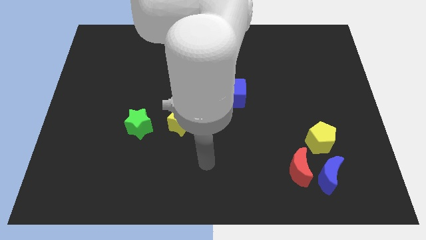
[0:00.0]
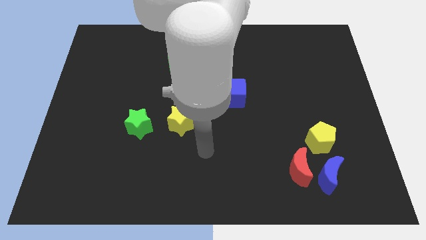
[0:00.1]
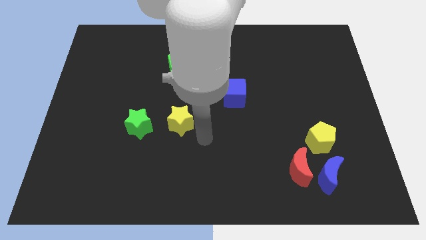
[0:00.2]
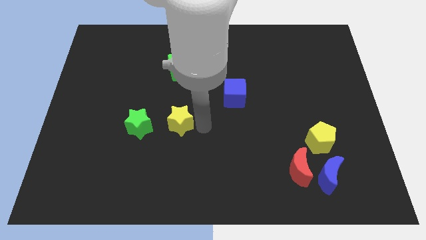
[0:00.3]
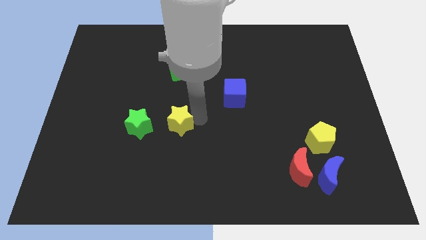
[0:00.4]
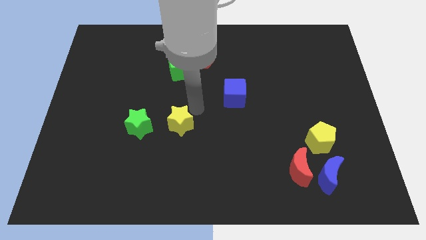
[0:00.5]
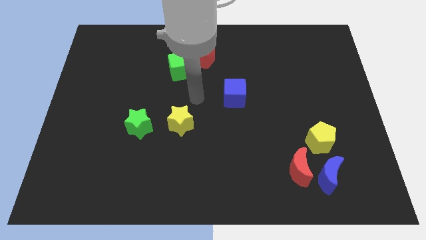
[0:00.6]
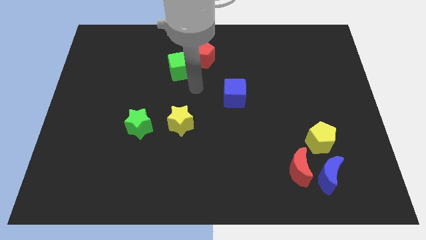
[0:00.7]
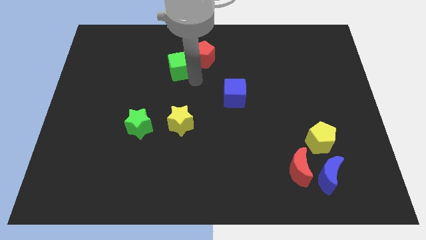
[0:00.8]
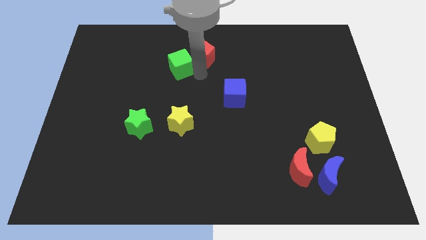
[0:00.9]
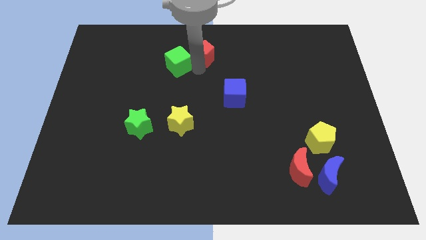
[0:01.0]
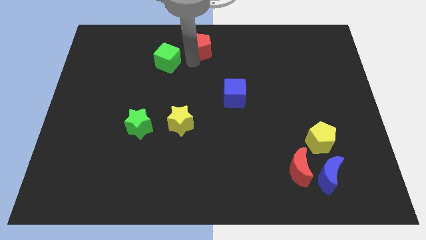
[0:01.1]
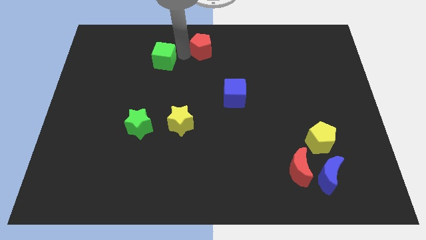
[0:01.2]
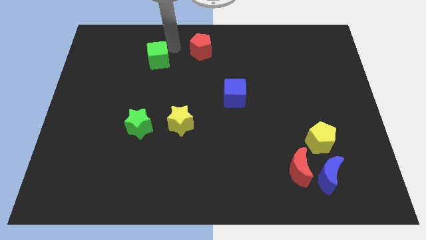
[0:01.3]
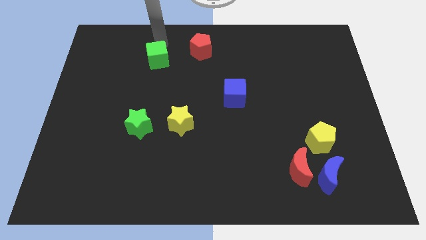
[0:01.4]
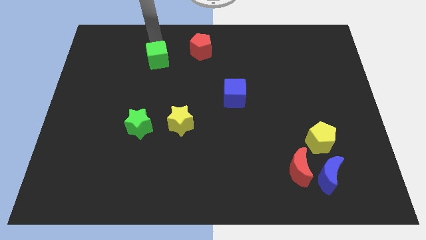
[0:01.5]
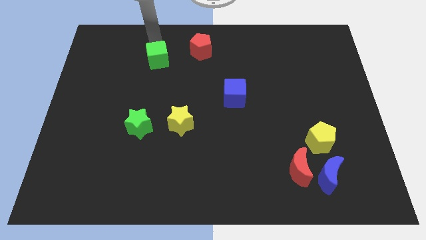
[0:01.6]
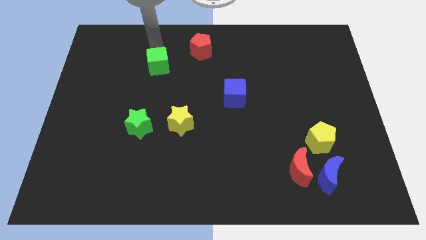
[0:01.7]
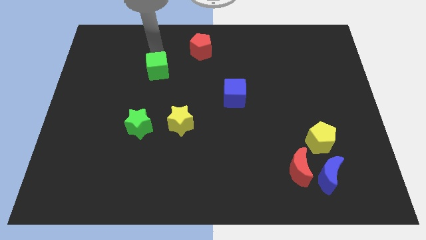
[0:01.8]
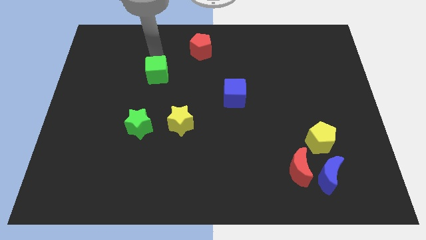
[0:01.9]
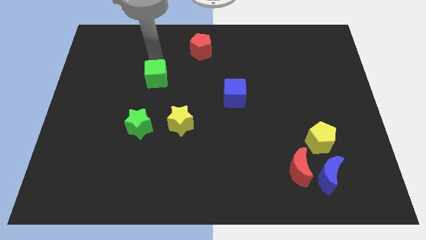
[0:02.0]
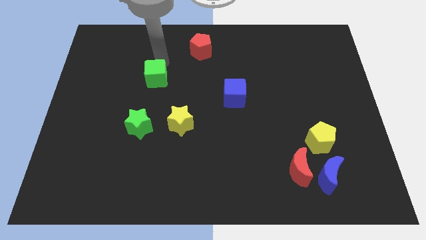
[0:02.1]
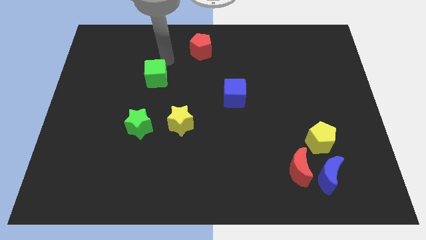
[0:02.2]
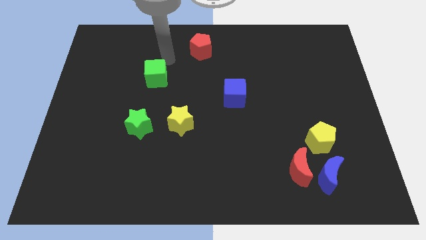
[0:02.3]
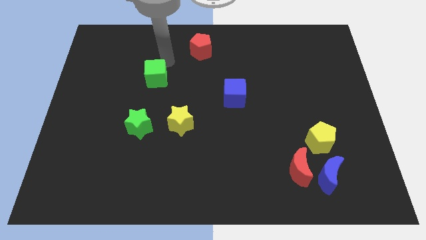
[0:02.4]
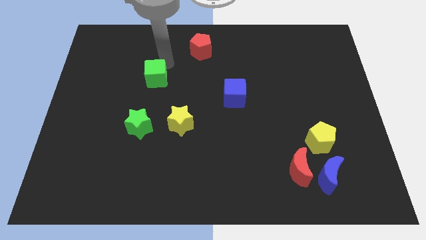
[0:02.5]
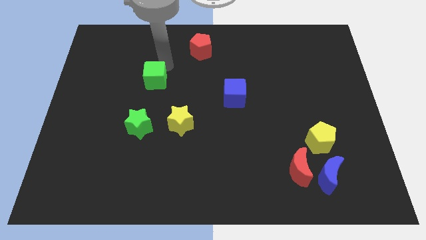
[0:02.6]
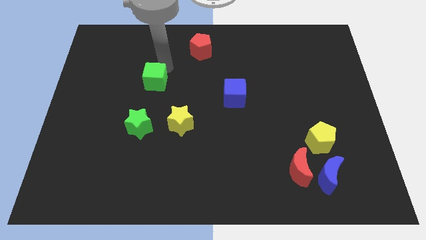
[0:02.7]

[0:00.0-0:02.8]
slightly move the green cube down and to the left diagonally

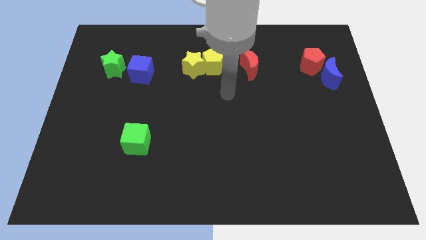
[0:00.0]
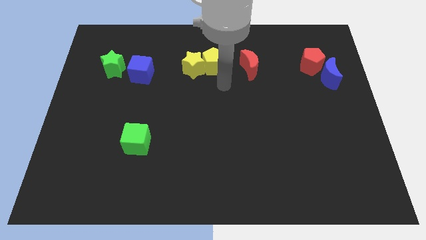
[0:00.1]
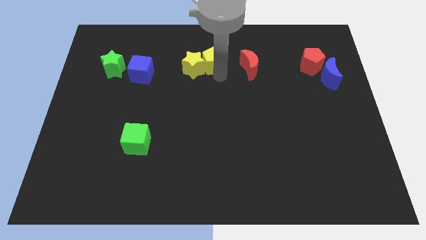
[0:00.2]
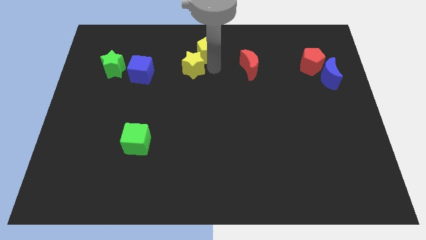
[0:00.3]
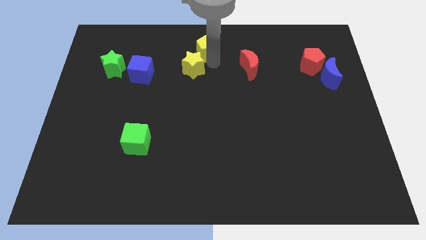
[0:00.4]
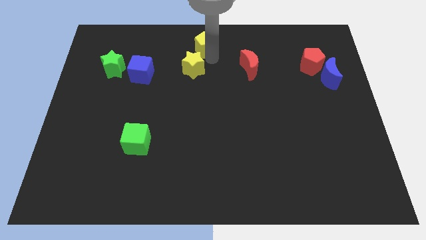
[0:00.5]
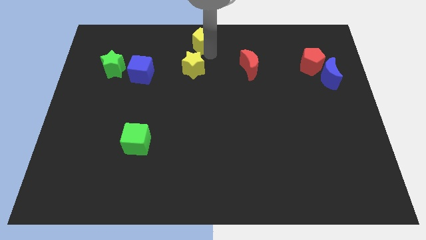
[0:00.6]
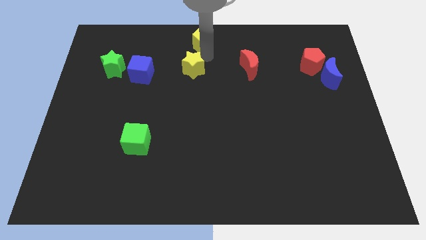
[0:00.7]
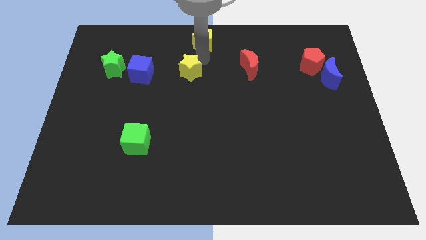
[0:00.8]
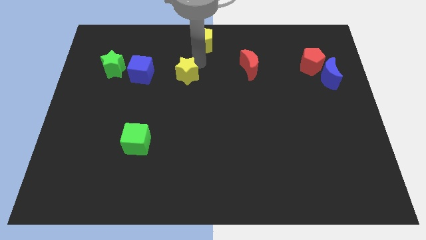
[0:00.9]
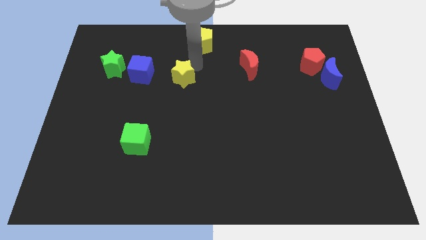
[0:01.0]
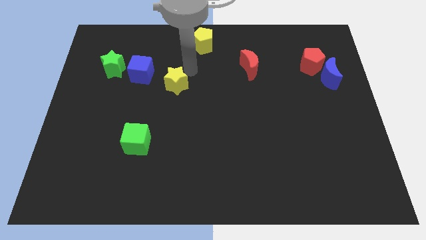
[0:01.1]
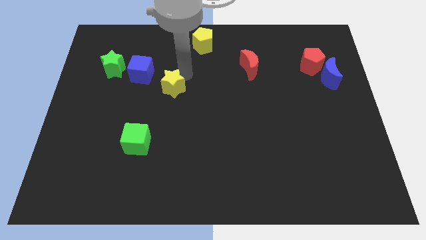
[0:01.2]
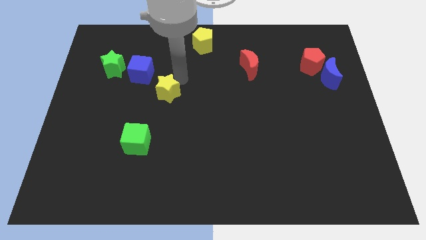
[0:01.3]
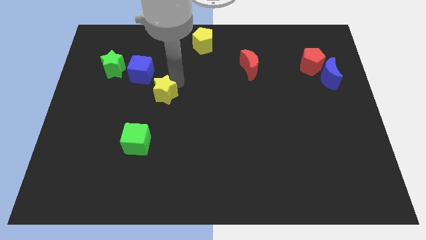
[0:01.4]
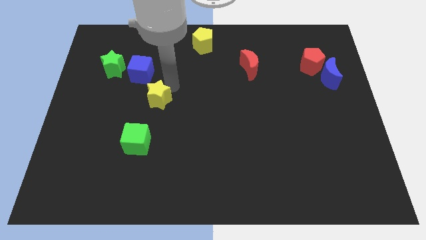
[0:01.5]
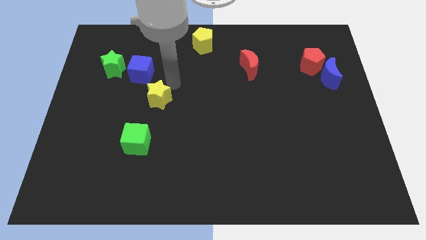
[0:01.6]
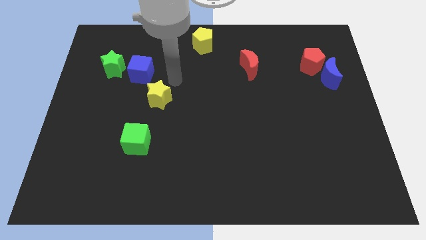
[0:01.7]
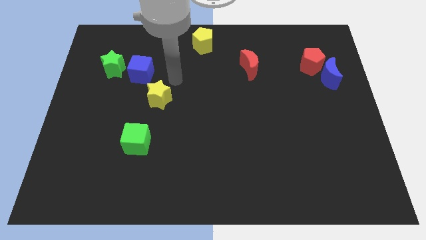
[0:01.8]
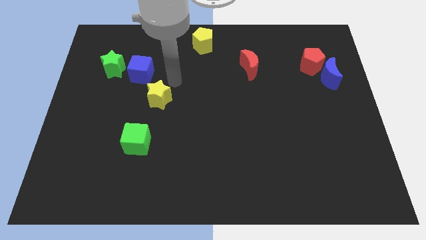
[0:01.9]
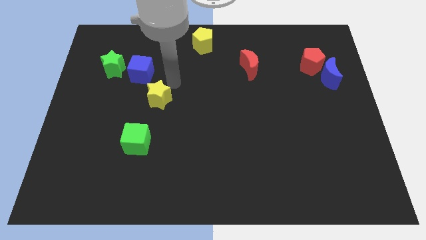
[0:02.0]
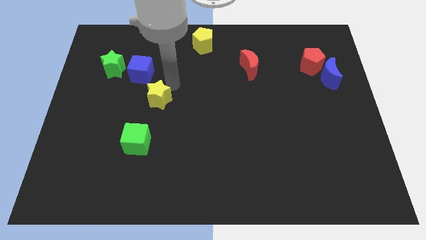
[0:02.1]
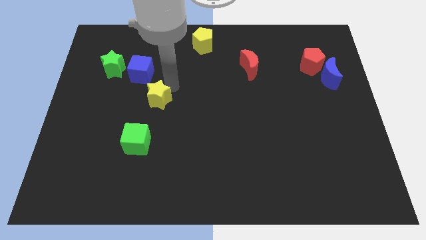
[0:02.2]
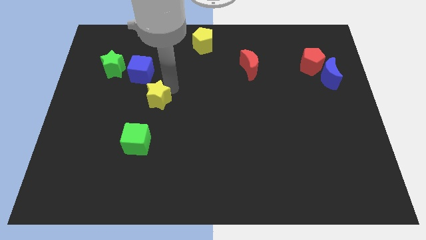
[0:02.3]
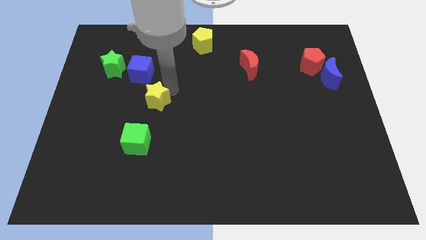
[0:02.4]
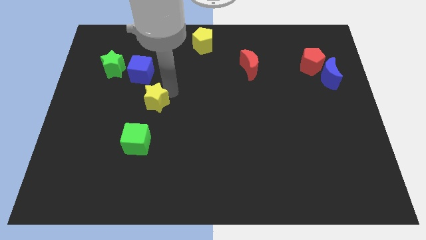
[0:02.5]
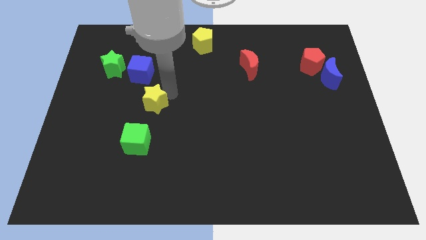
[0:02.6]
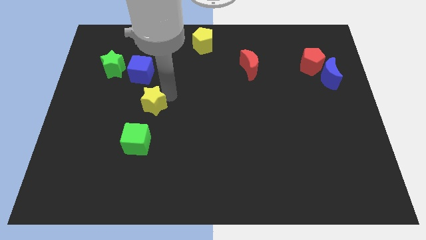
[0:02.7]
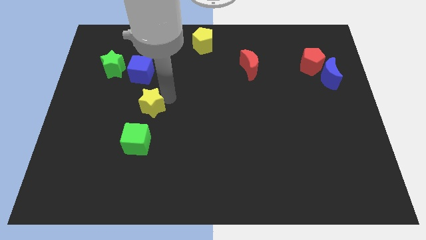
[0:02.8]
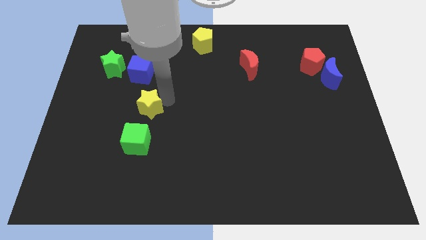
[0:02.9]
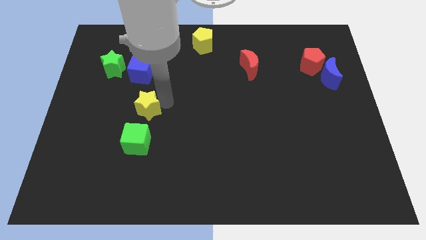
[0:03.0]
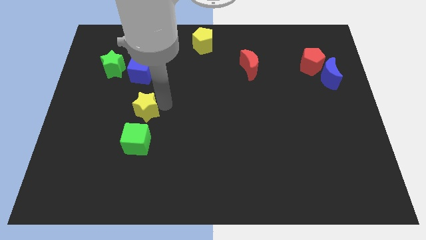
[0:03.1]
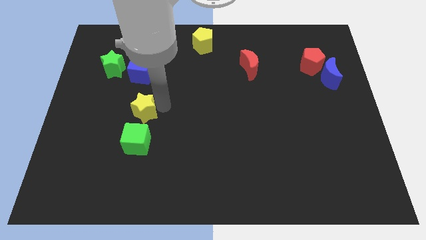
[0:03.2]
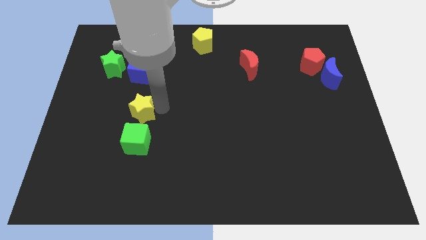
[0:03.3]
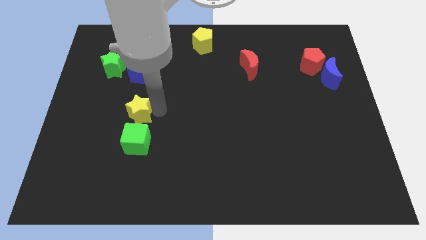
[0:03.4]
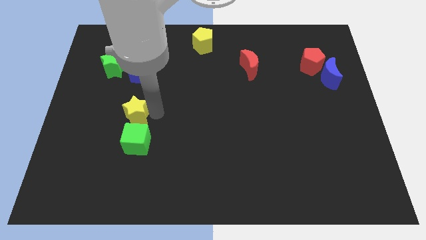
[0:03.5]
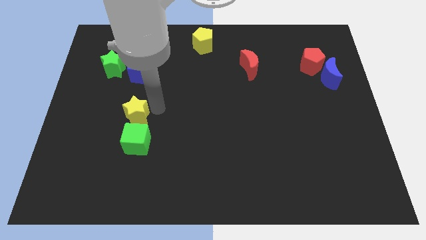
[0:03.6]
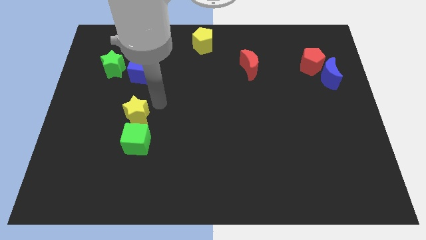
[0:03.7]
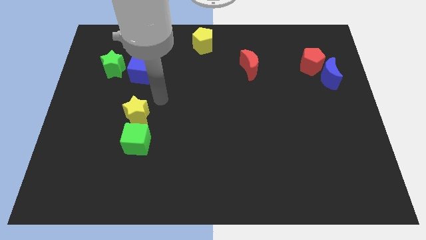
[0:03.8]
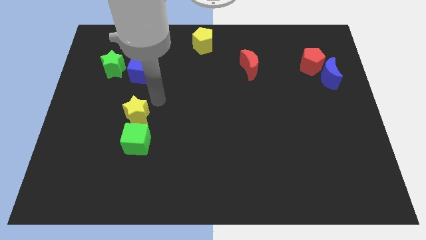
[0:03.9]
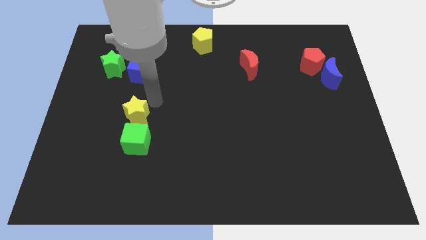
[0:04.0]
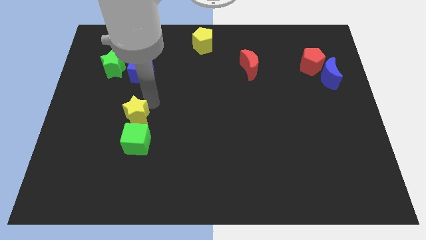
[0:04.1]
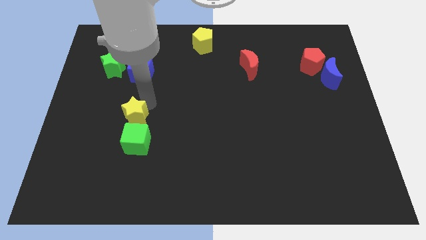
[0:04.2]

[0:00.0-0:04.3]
move the yellow star downwards and left diagonally

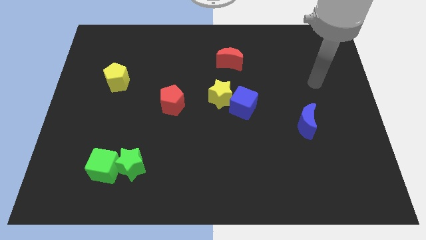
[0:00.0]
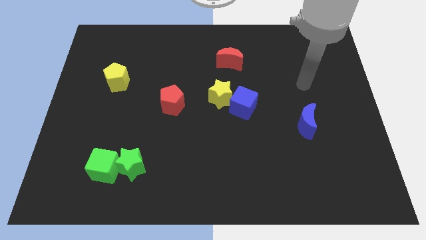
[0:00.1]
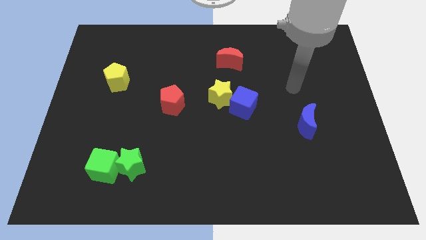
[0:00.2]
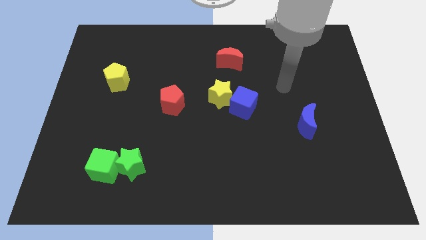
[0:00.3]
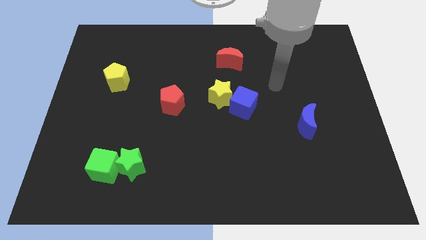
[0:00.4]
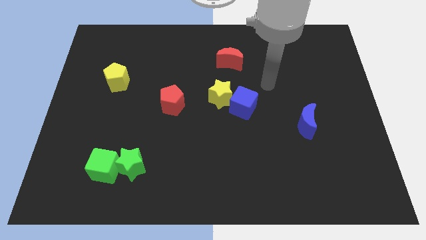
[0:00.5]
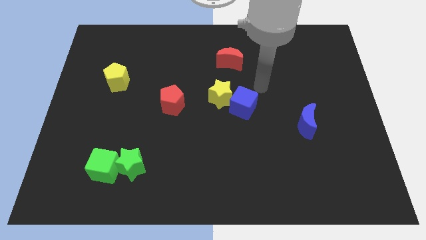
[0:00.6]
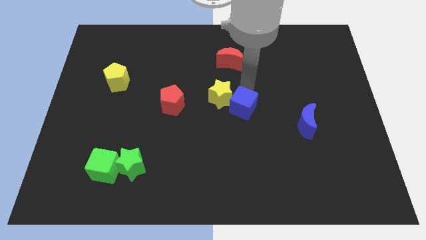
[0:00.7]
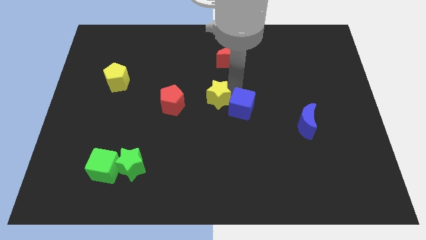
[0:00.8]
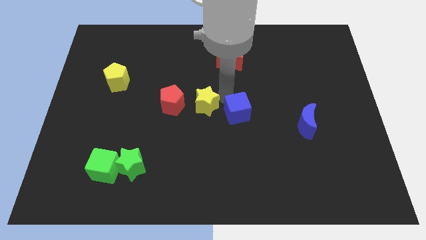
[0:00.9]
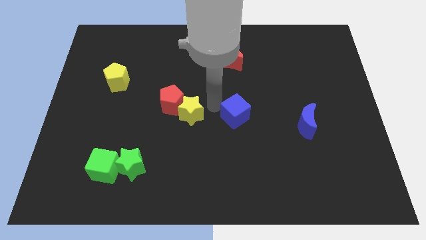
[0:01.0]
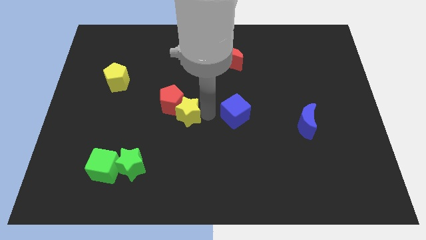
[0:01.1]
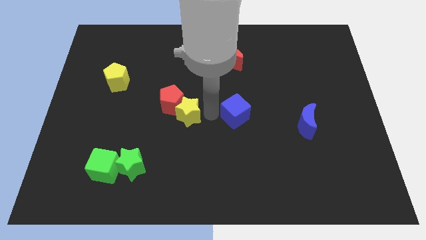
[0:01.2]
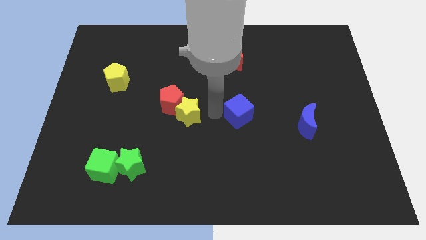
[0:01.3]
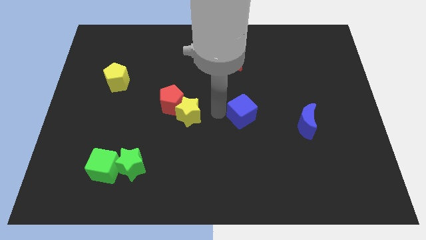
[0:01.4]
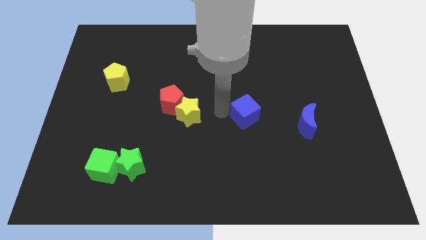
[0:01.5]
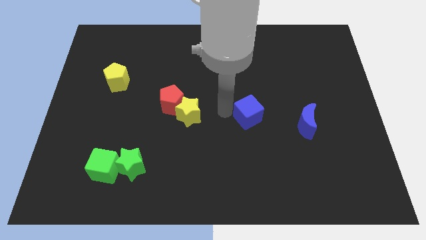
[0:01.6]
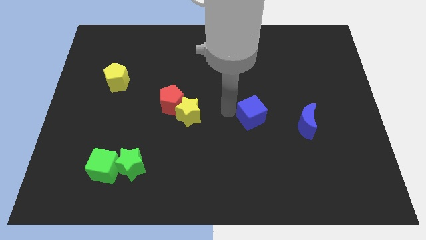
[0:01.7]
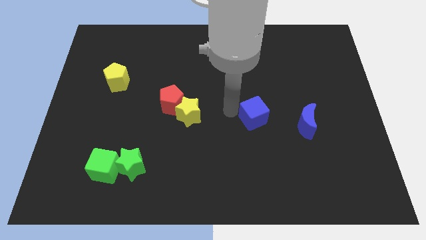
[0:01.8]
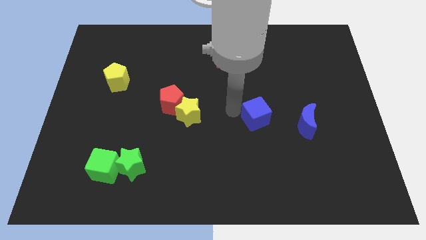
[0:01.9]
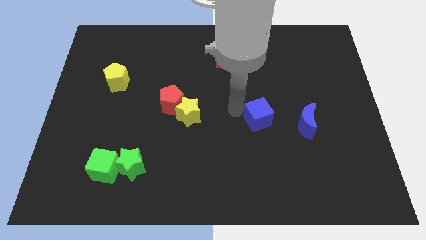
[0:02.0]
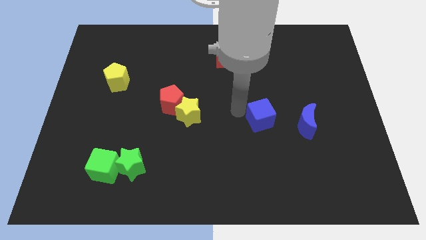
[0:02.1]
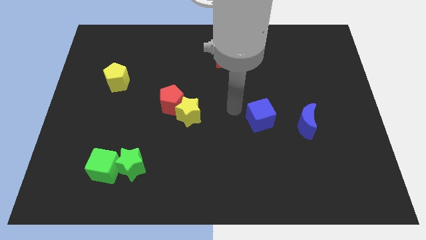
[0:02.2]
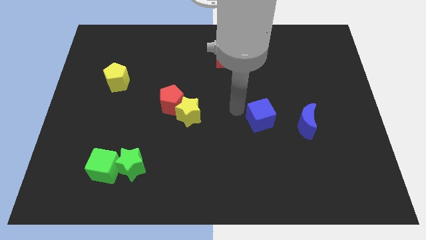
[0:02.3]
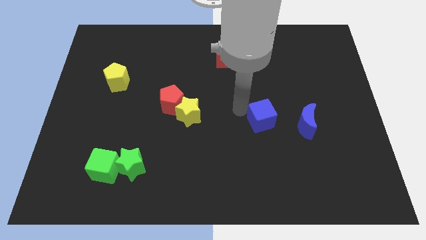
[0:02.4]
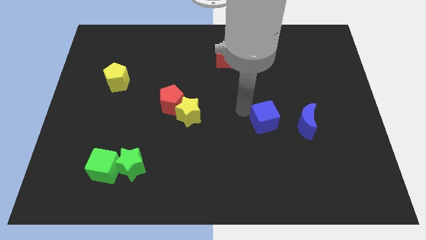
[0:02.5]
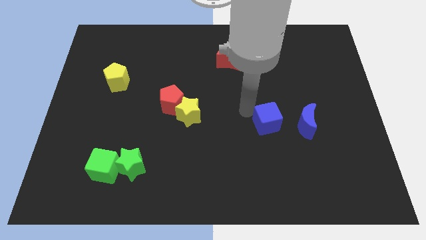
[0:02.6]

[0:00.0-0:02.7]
push the blue cube down and then right a little
